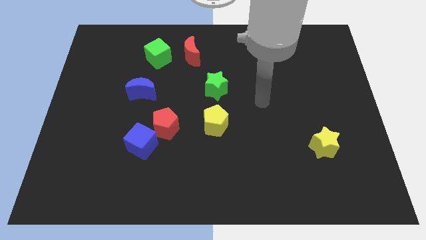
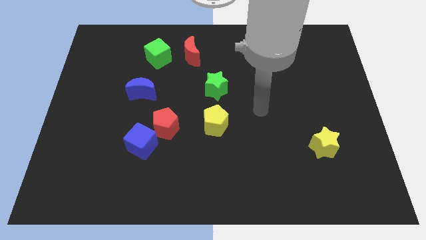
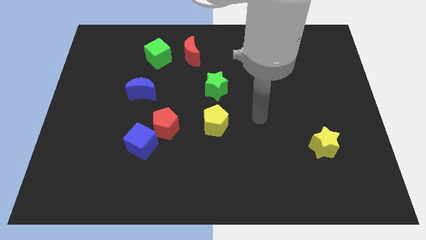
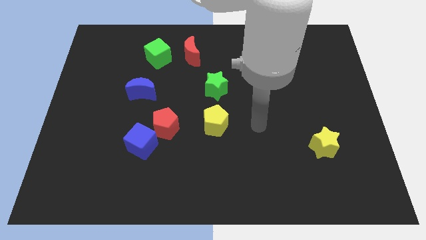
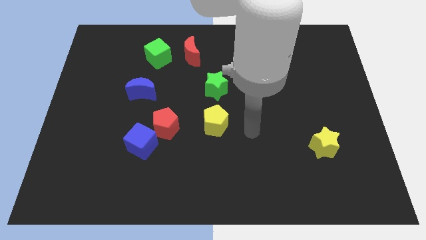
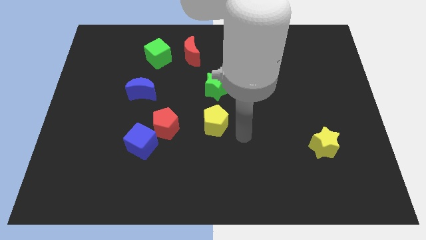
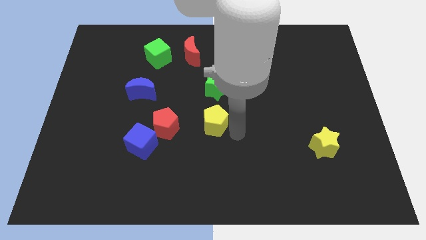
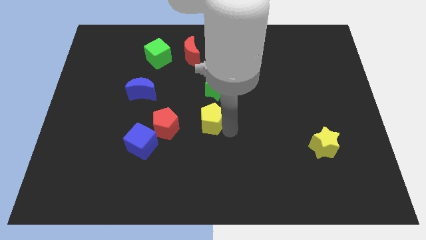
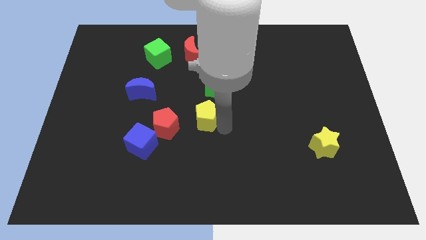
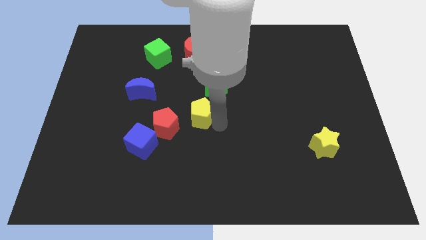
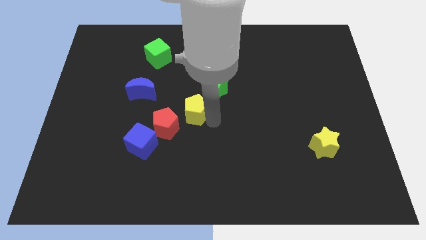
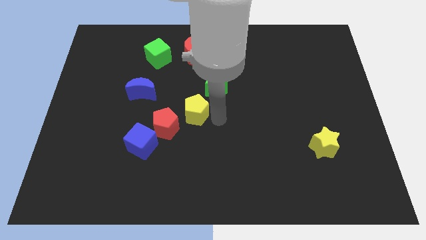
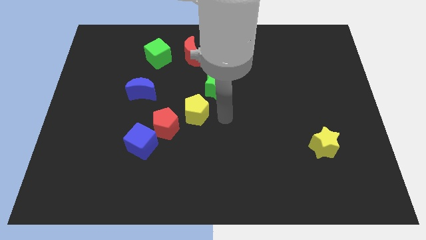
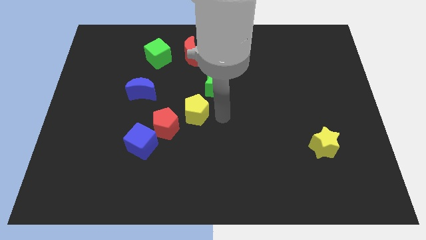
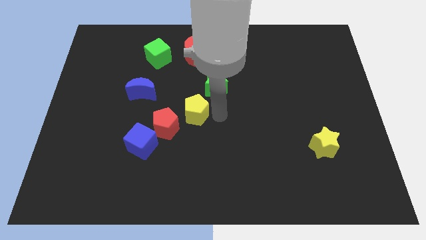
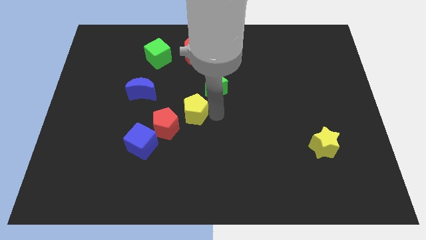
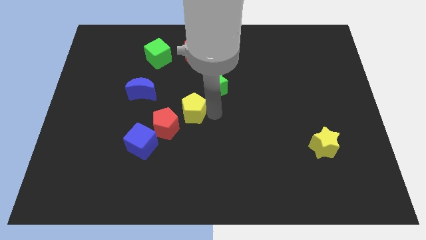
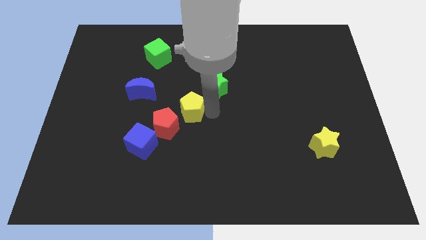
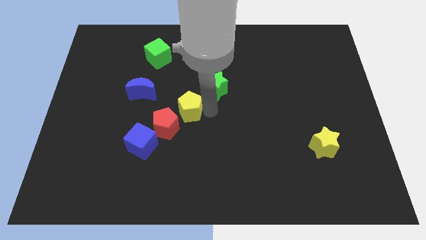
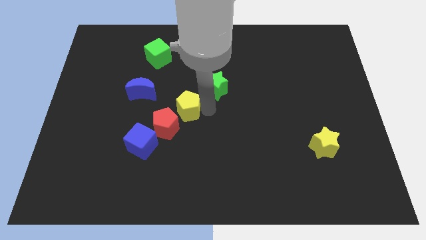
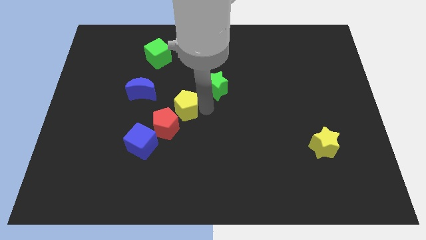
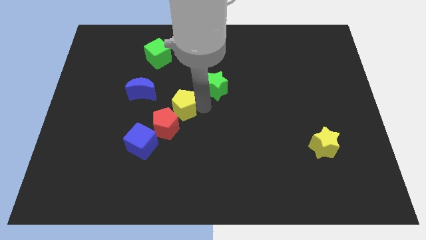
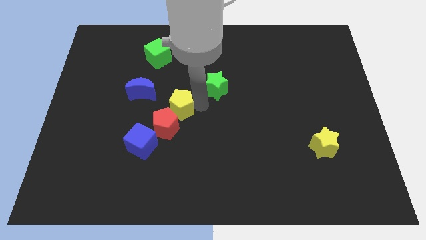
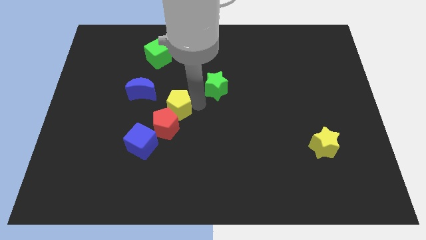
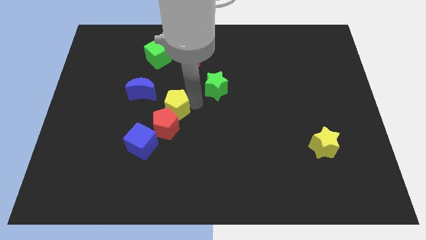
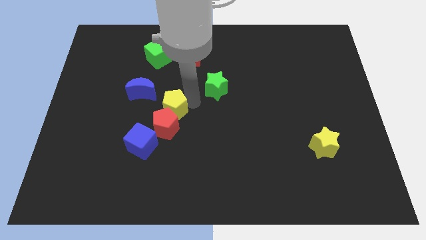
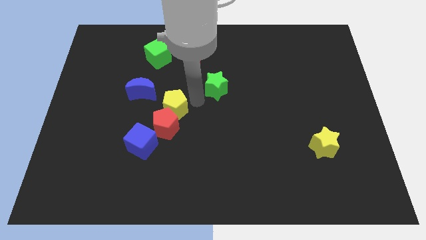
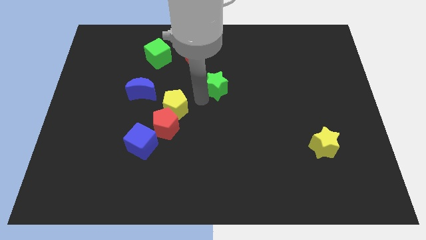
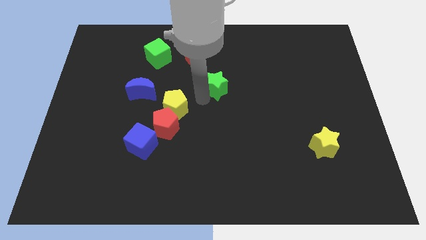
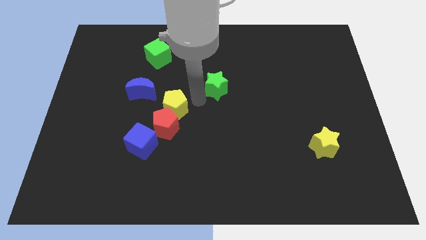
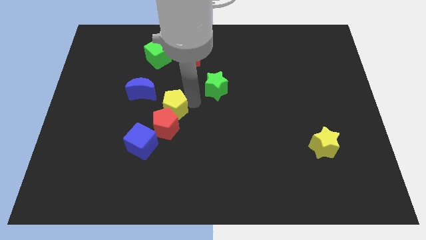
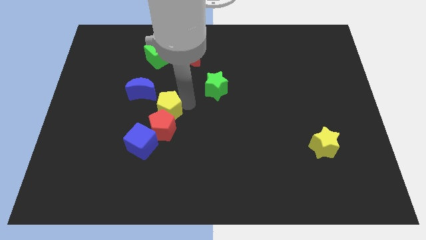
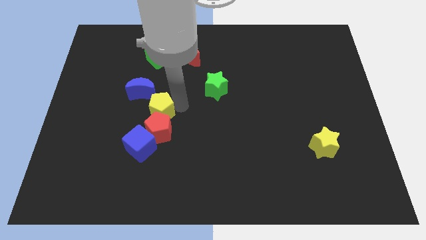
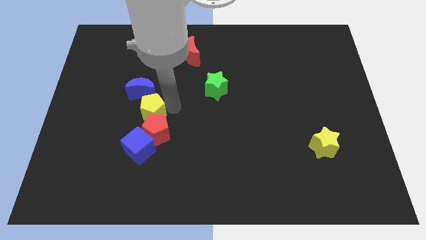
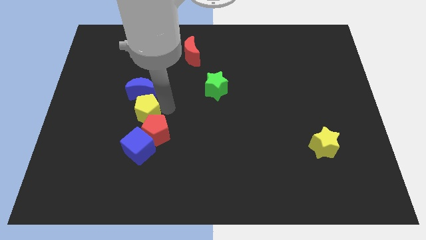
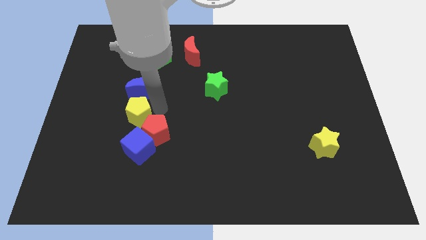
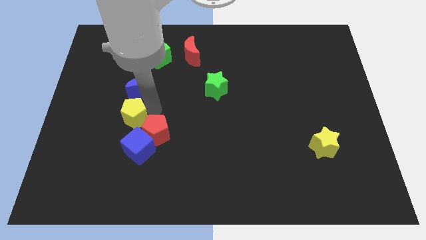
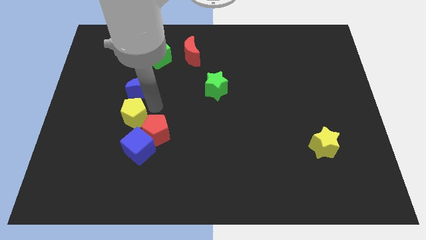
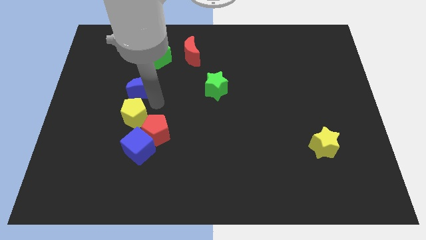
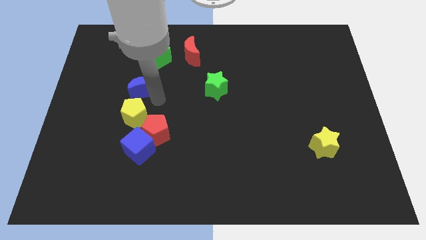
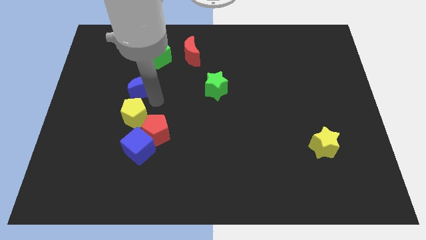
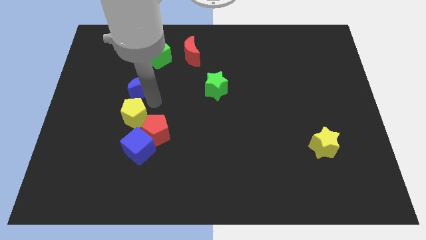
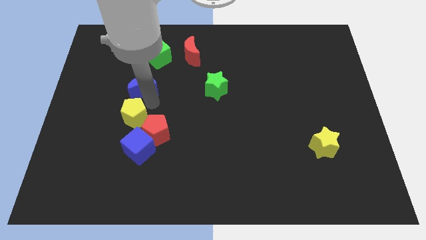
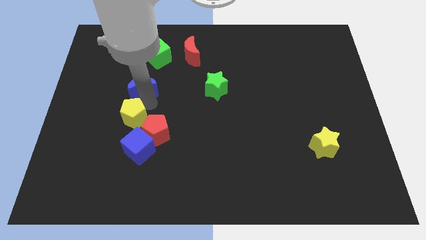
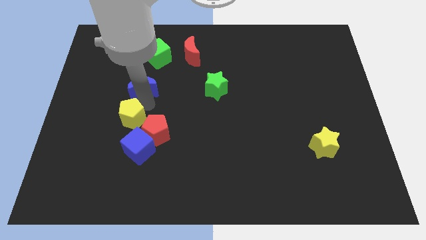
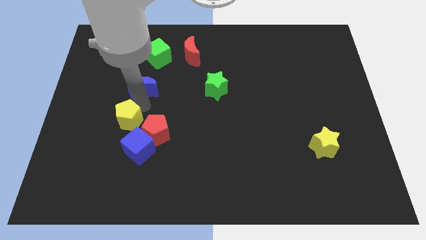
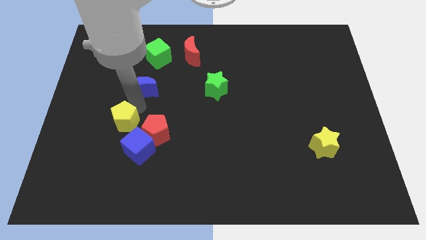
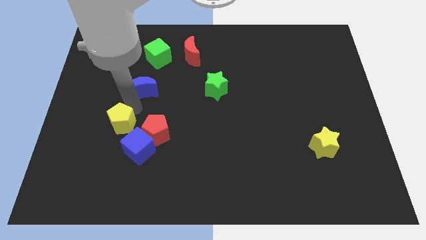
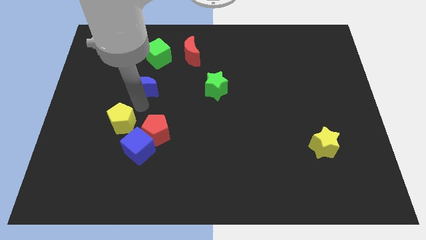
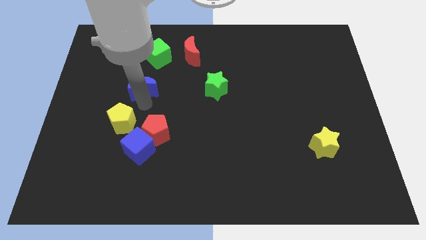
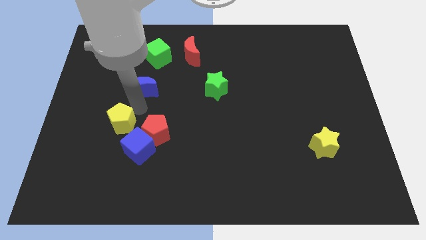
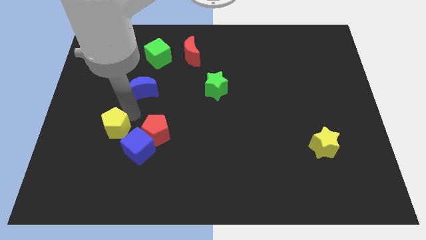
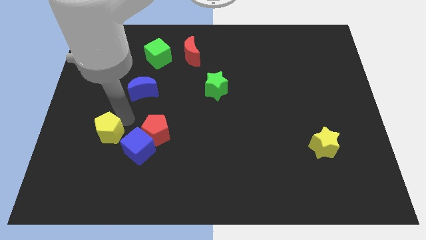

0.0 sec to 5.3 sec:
push the yellow pentagon just left of the blue cube

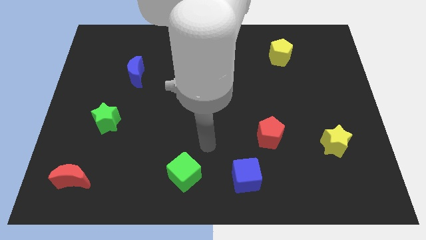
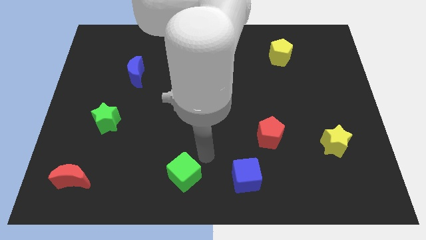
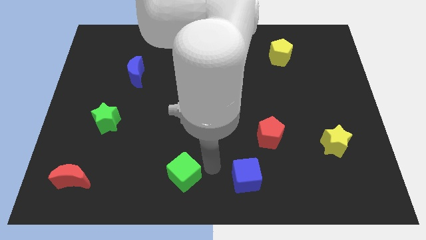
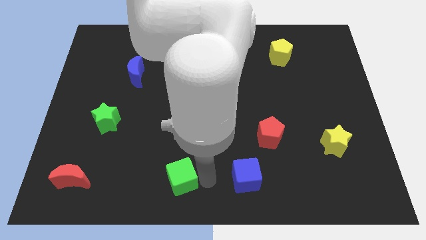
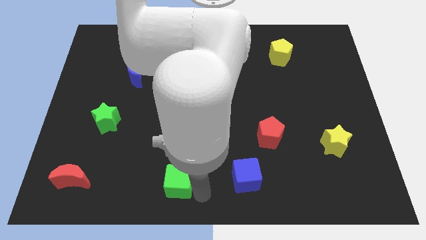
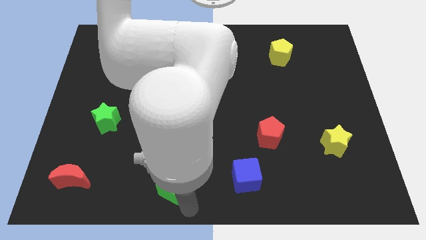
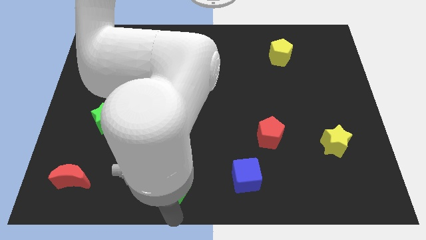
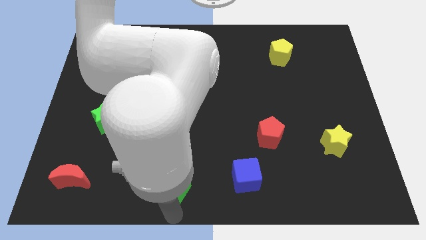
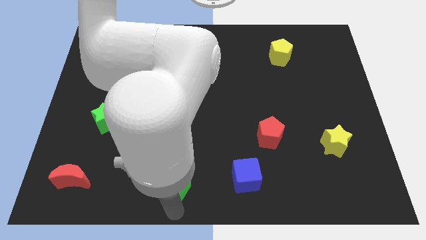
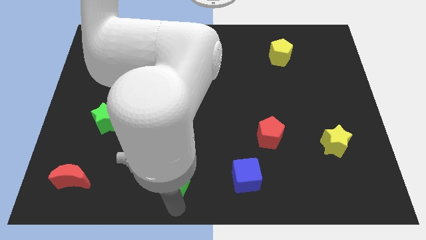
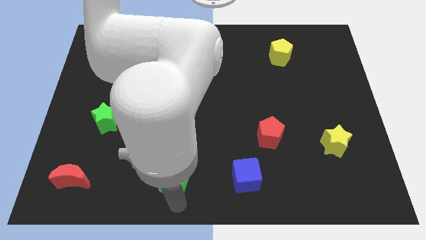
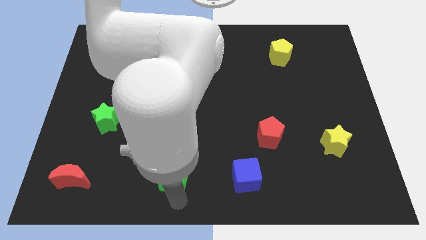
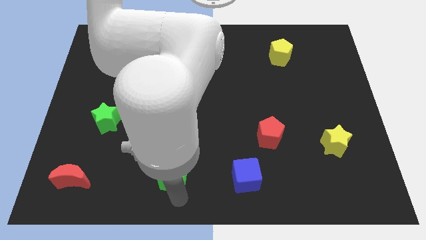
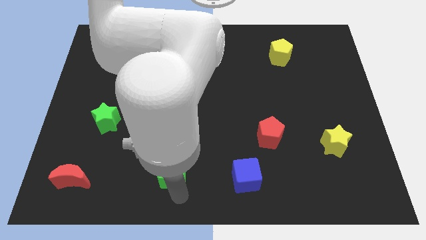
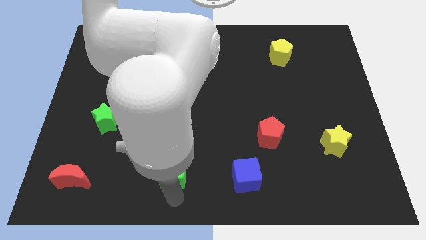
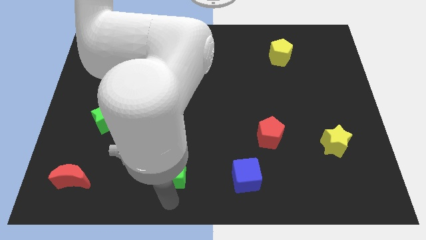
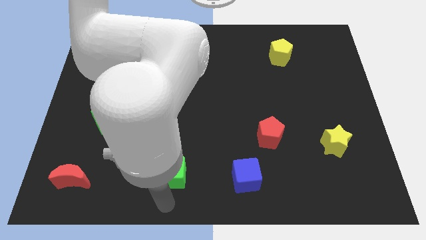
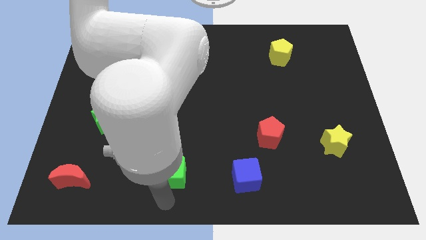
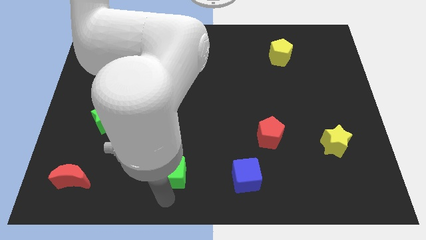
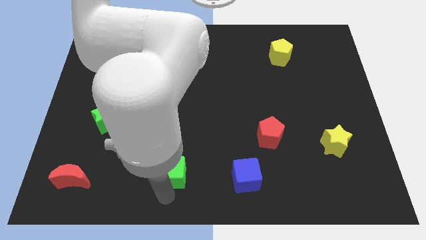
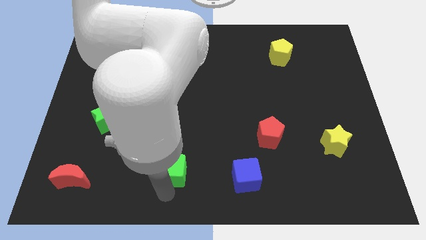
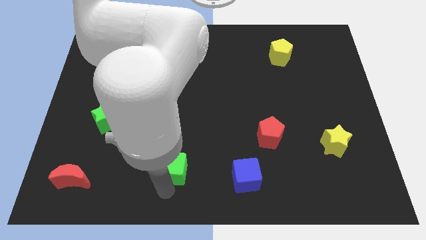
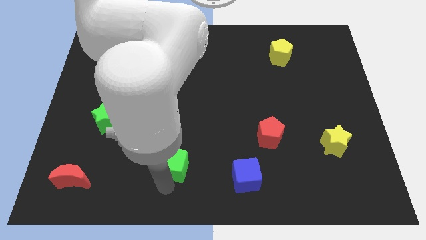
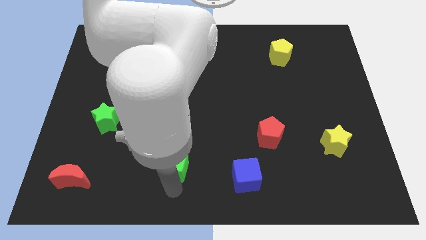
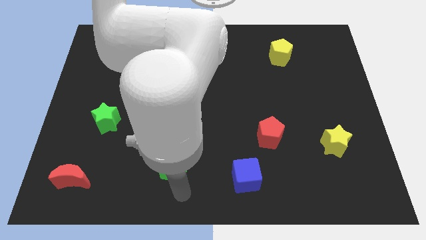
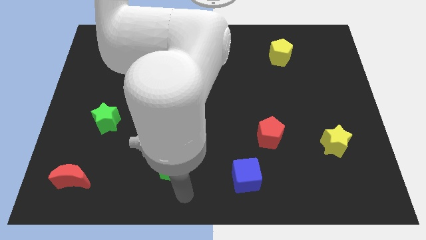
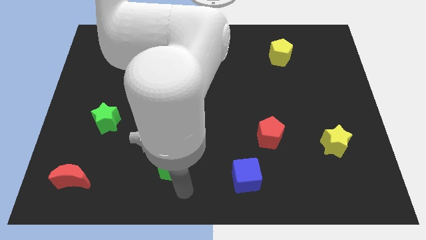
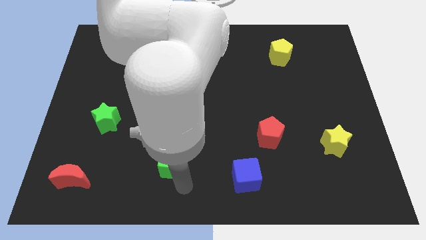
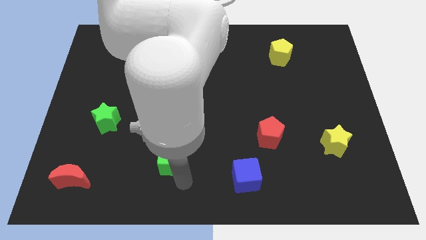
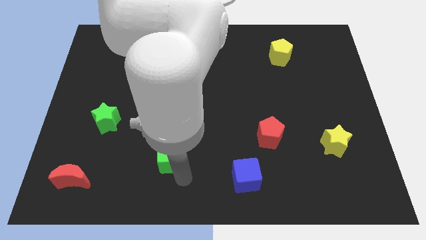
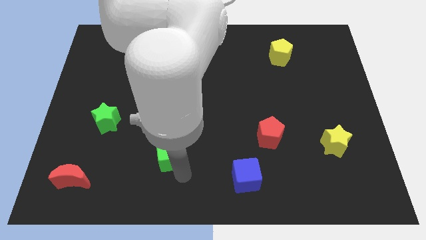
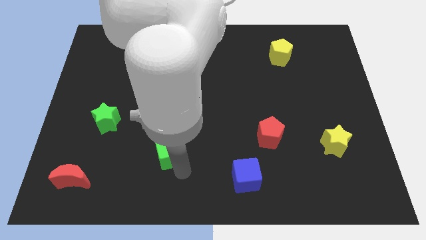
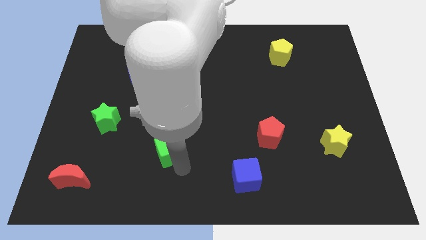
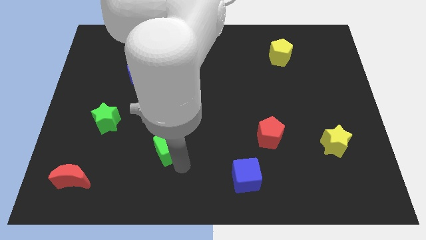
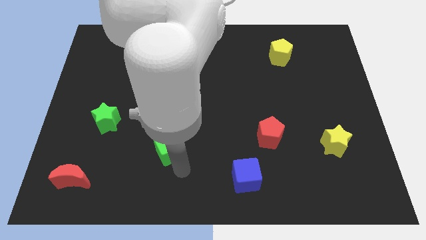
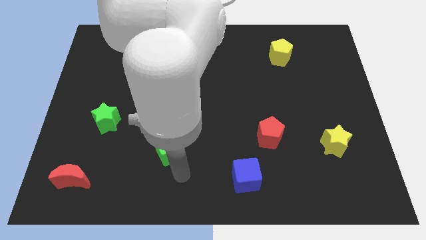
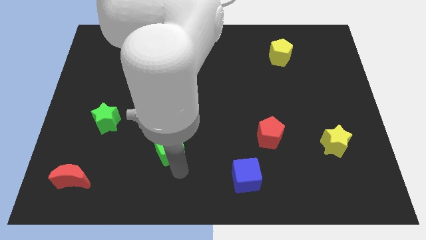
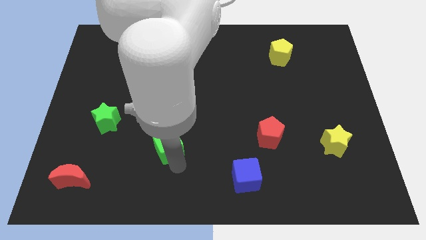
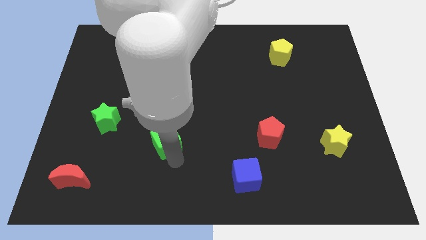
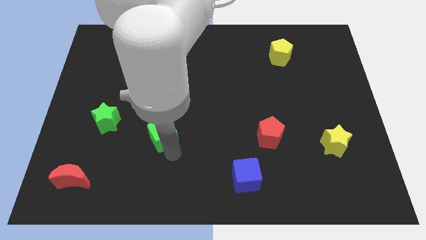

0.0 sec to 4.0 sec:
move the green cube just right of the green star
